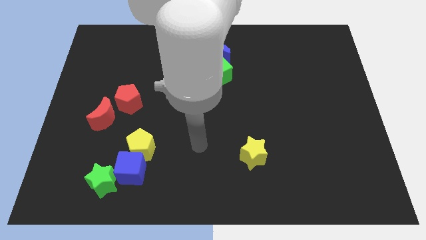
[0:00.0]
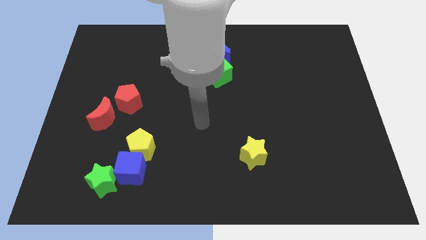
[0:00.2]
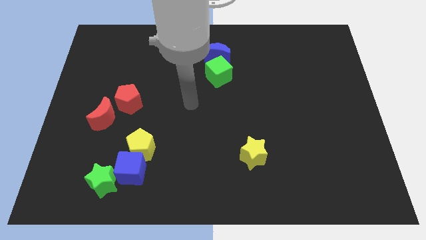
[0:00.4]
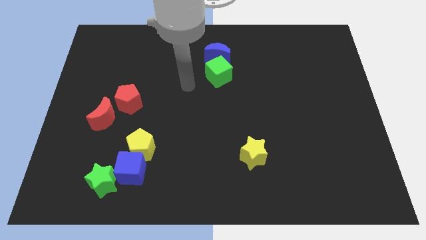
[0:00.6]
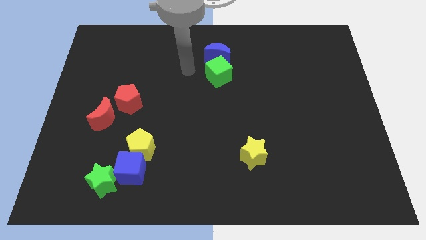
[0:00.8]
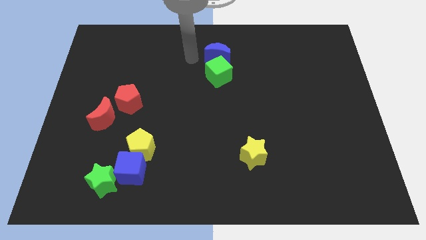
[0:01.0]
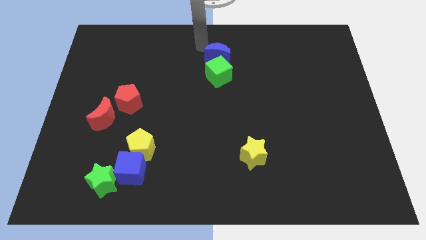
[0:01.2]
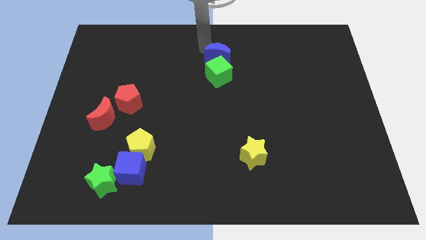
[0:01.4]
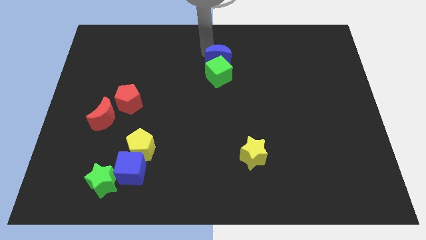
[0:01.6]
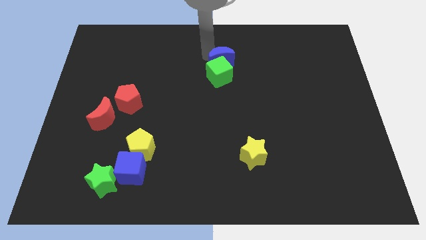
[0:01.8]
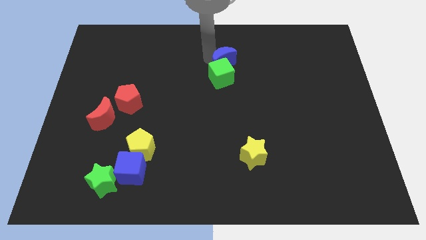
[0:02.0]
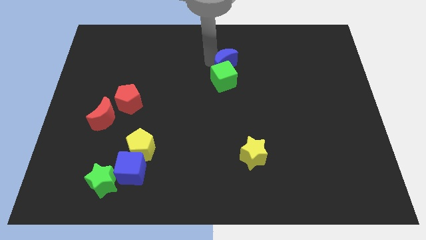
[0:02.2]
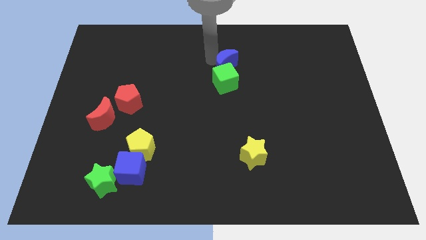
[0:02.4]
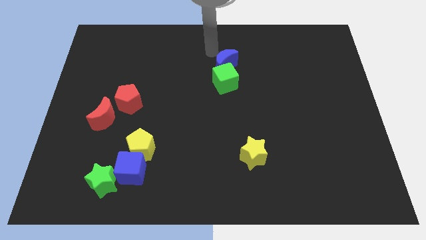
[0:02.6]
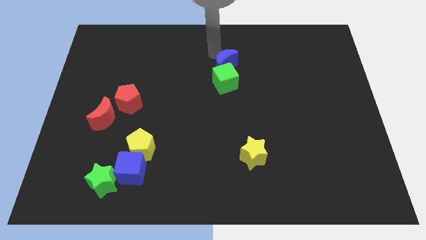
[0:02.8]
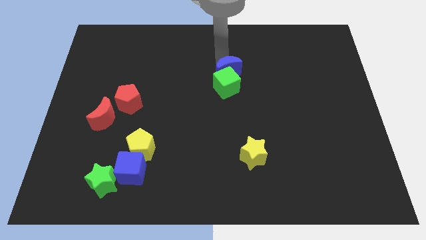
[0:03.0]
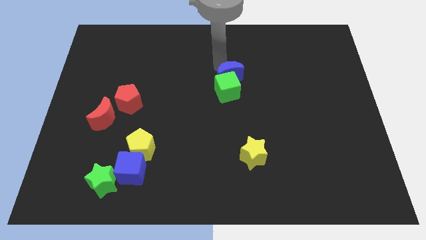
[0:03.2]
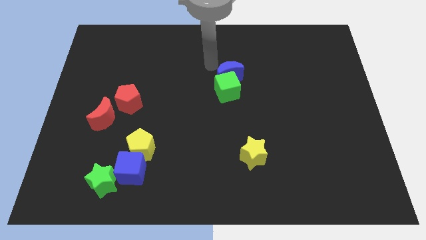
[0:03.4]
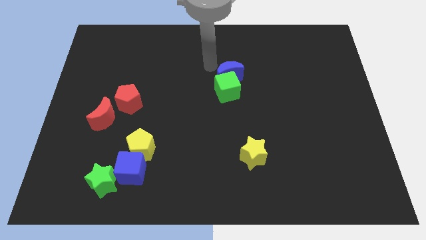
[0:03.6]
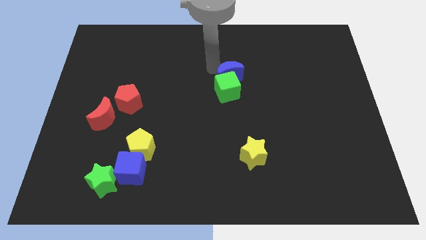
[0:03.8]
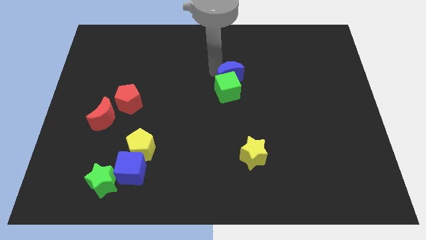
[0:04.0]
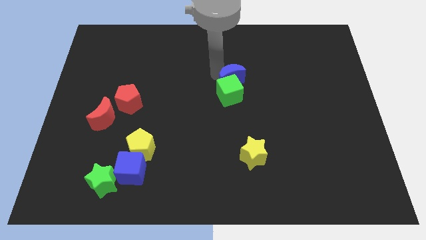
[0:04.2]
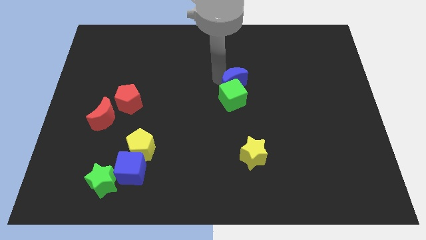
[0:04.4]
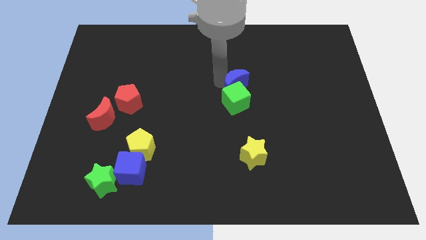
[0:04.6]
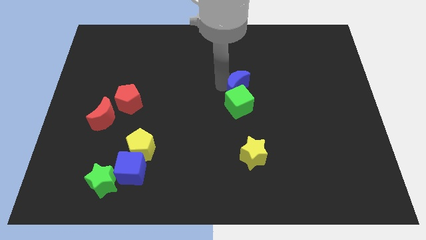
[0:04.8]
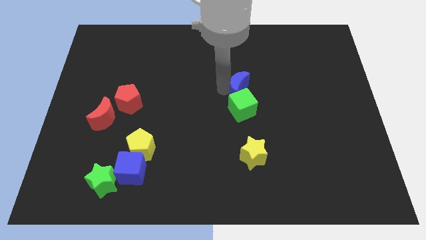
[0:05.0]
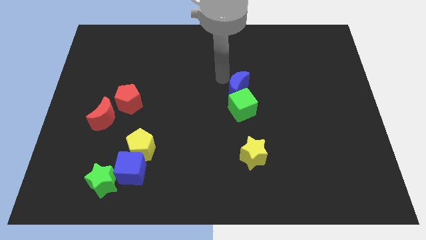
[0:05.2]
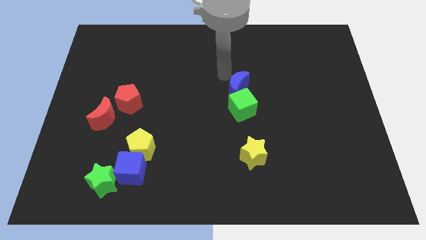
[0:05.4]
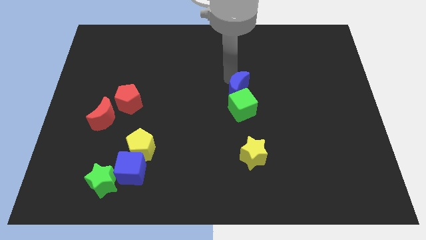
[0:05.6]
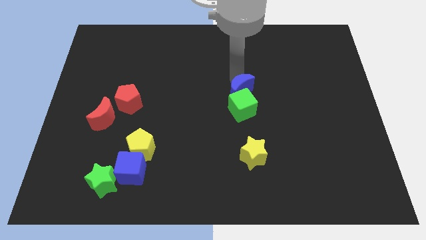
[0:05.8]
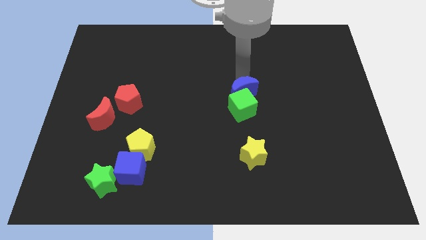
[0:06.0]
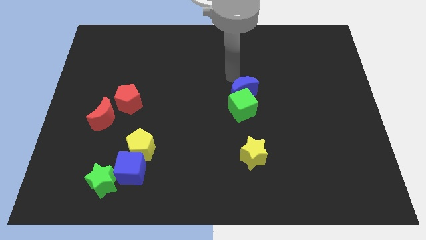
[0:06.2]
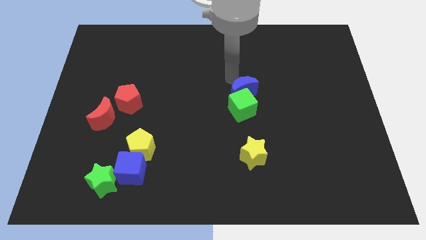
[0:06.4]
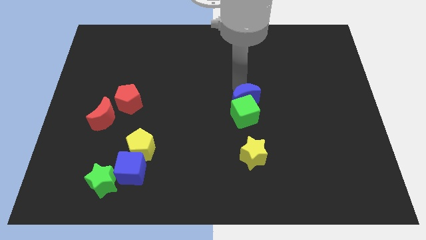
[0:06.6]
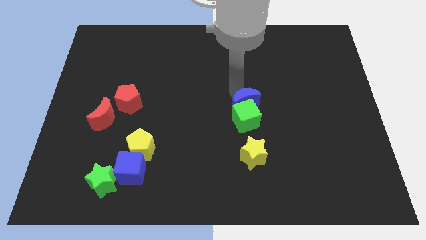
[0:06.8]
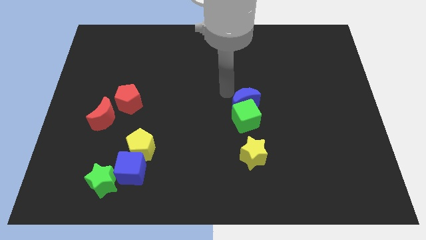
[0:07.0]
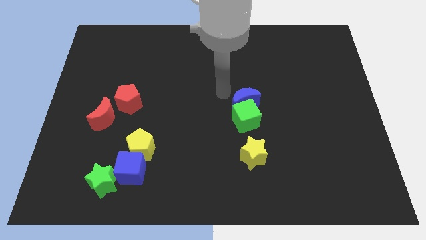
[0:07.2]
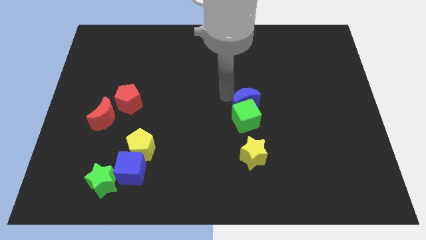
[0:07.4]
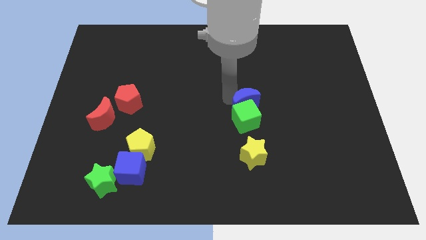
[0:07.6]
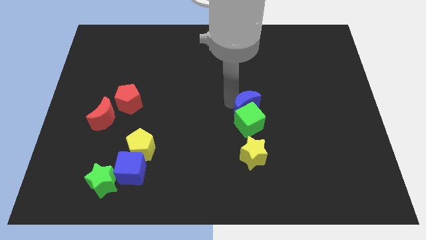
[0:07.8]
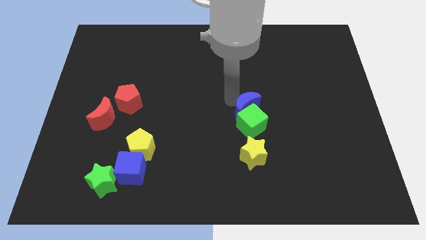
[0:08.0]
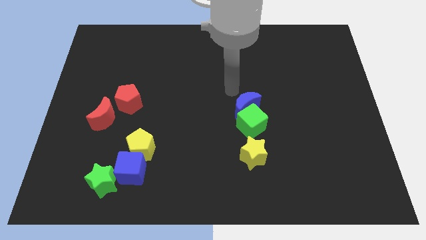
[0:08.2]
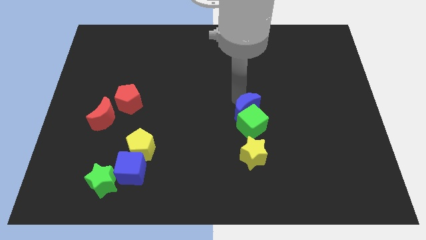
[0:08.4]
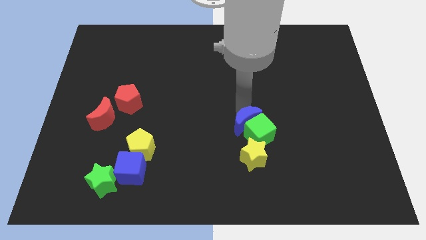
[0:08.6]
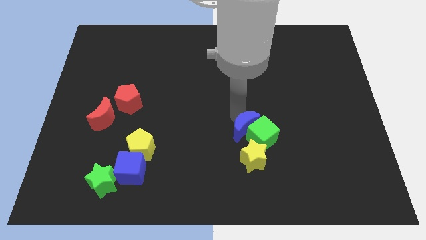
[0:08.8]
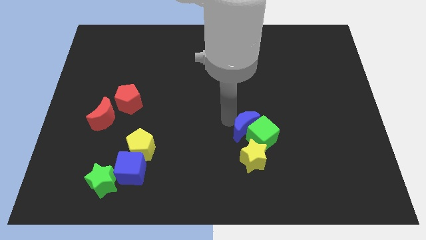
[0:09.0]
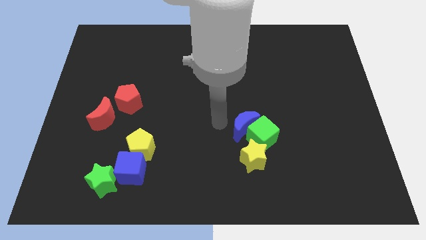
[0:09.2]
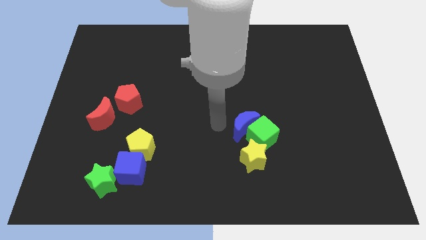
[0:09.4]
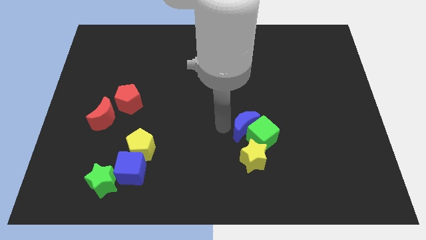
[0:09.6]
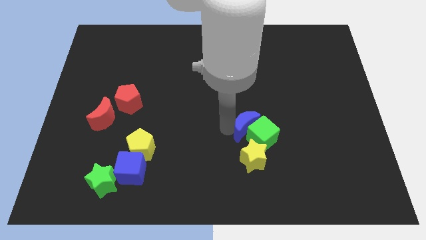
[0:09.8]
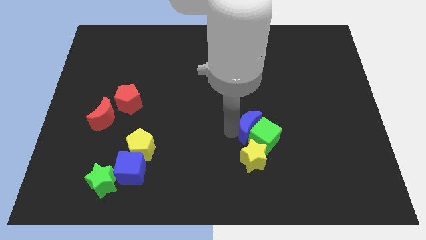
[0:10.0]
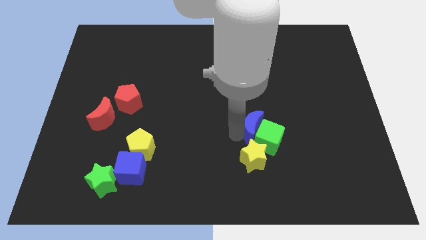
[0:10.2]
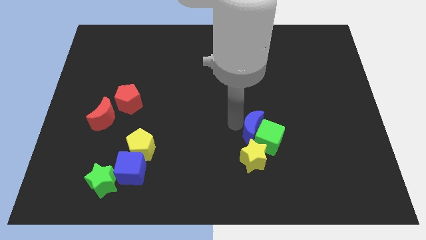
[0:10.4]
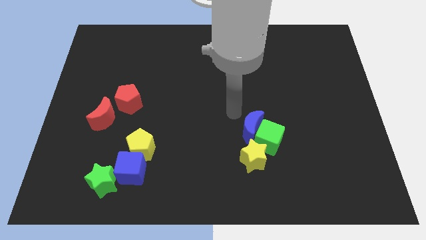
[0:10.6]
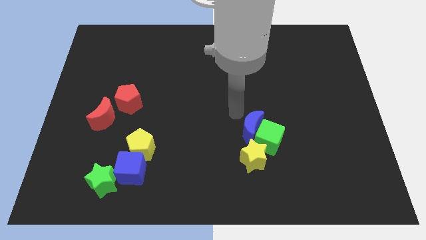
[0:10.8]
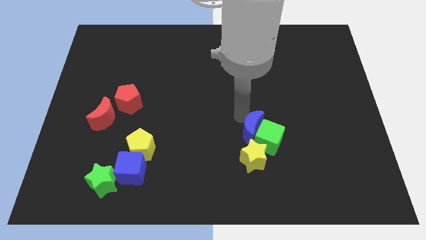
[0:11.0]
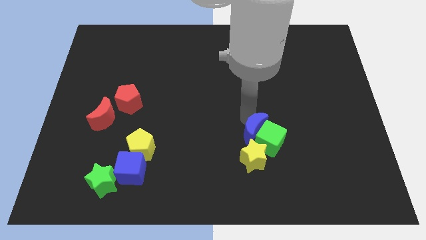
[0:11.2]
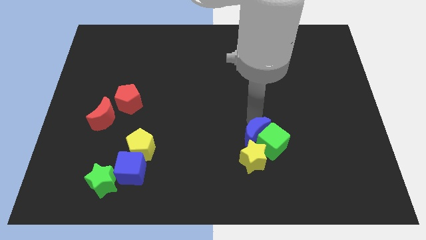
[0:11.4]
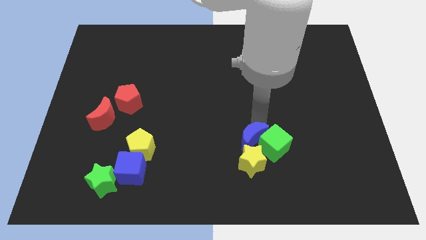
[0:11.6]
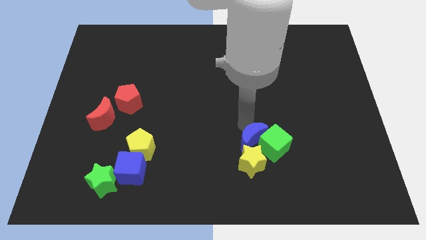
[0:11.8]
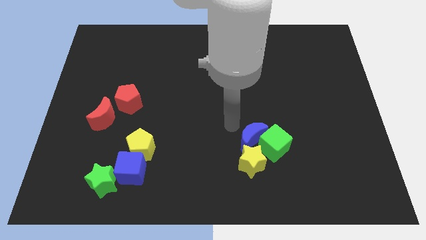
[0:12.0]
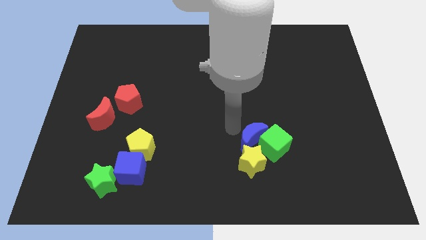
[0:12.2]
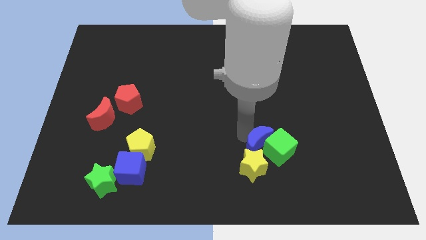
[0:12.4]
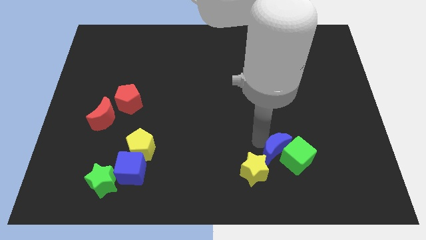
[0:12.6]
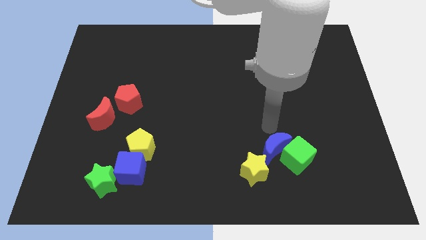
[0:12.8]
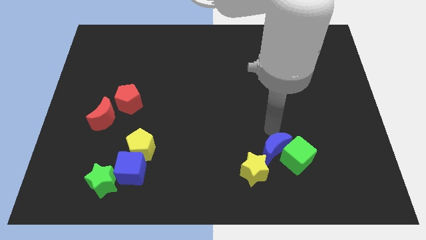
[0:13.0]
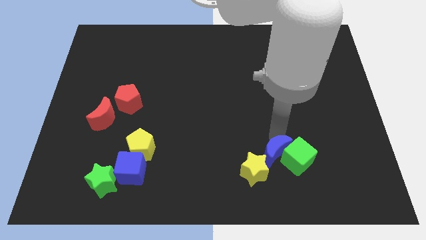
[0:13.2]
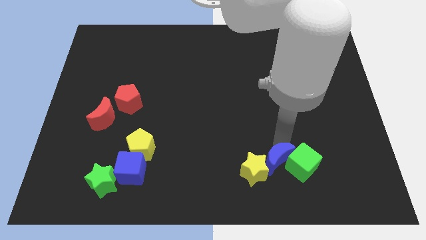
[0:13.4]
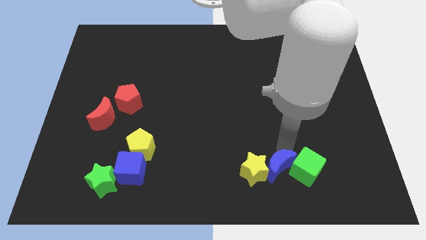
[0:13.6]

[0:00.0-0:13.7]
slide the blue moon to the bottom right side of the yellow star
